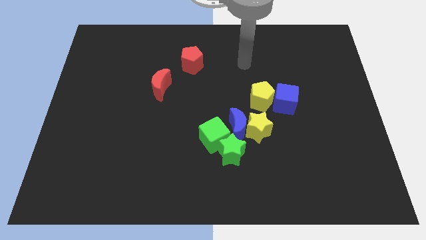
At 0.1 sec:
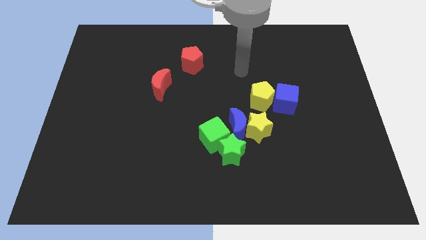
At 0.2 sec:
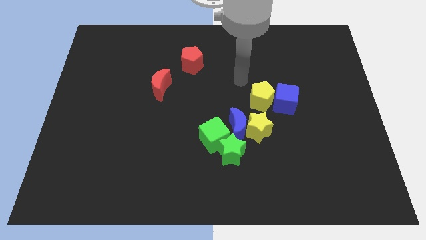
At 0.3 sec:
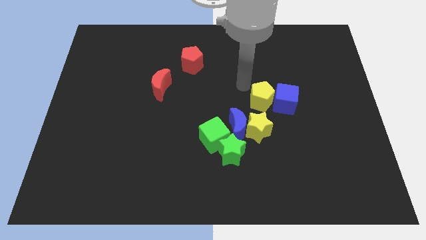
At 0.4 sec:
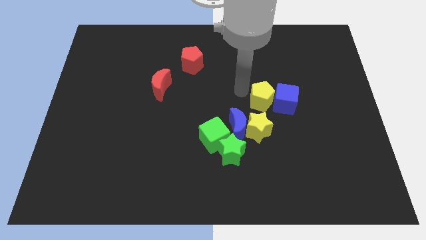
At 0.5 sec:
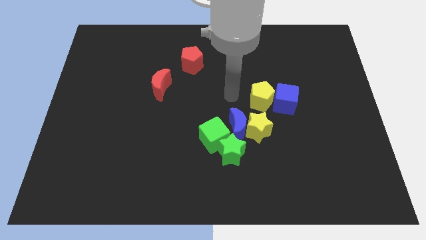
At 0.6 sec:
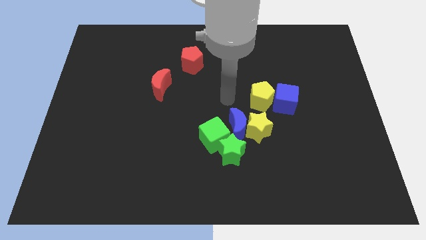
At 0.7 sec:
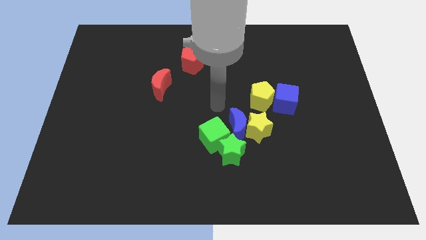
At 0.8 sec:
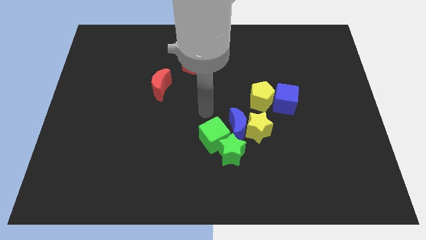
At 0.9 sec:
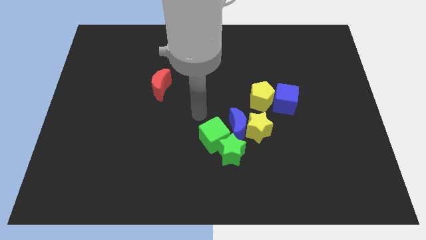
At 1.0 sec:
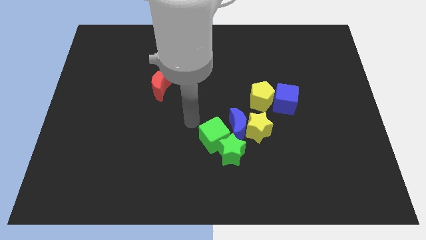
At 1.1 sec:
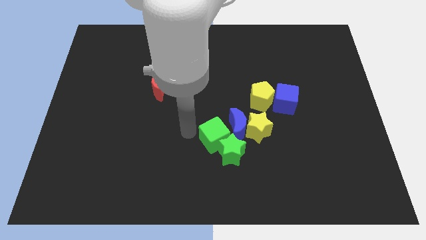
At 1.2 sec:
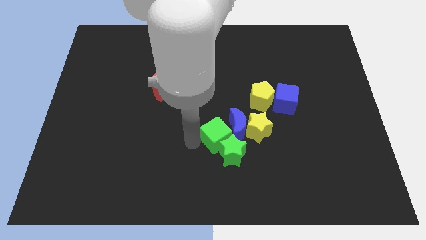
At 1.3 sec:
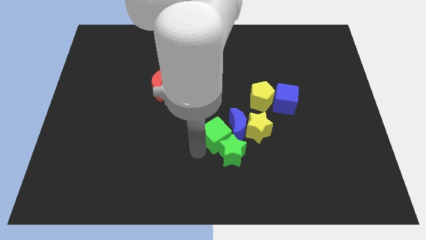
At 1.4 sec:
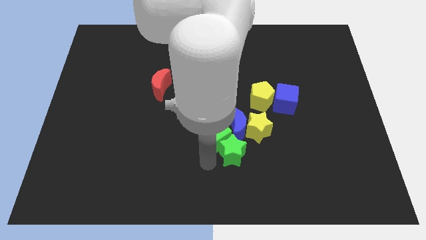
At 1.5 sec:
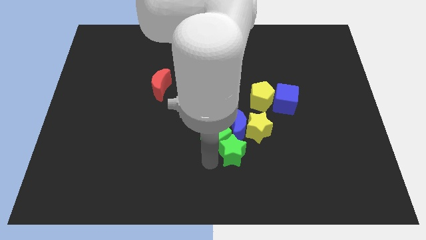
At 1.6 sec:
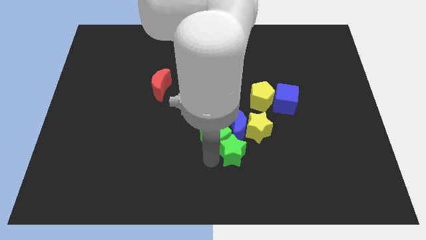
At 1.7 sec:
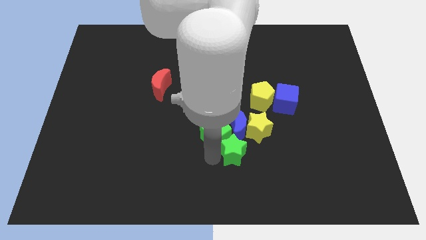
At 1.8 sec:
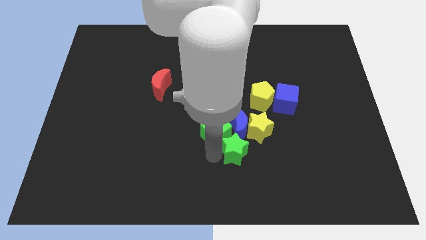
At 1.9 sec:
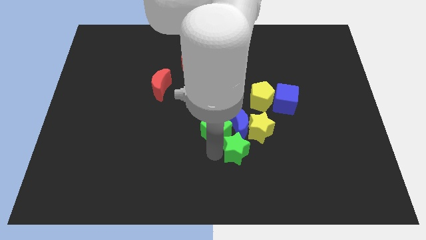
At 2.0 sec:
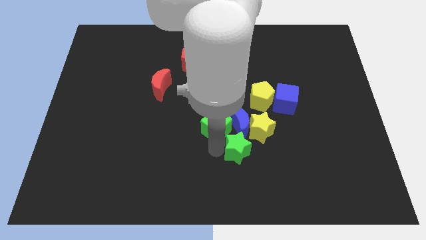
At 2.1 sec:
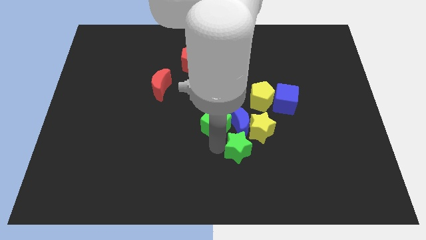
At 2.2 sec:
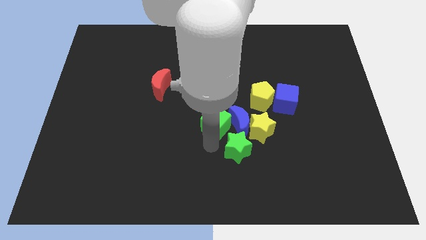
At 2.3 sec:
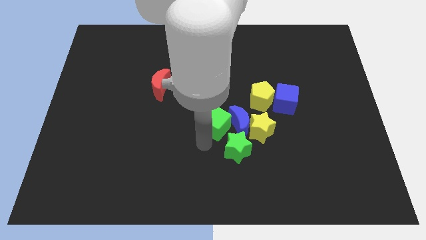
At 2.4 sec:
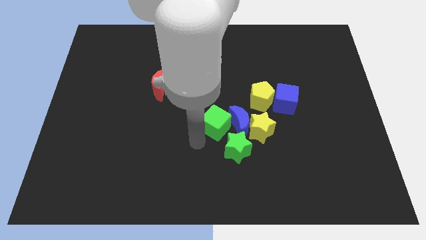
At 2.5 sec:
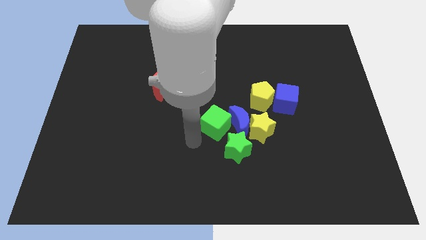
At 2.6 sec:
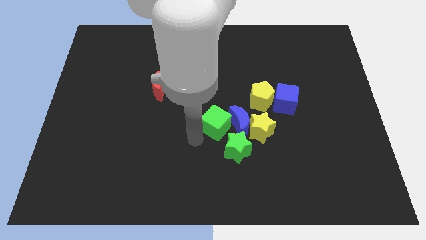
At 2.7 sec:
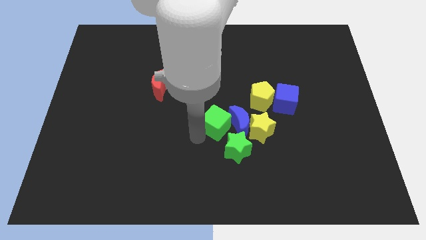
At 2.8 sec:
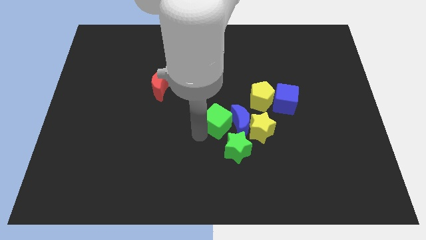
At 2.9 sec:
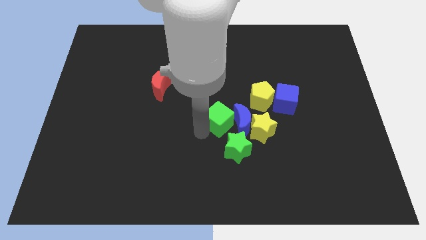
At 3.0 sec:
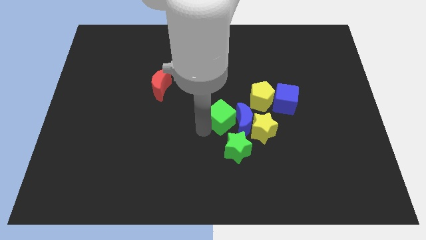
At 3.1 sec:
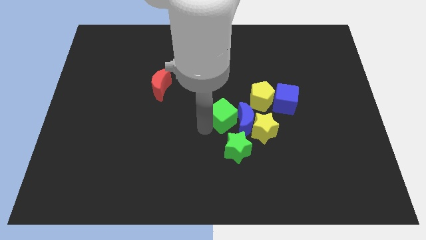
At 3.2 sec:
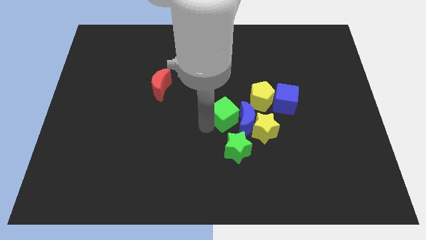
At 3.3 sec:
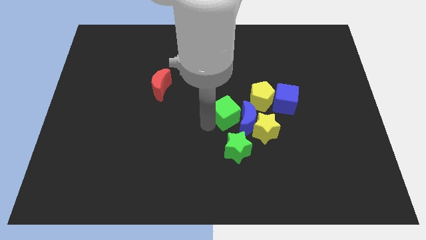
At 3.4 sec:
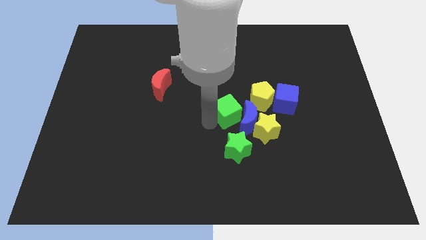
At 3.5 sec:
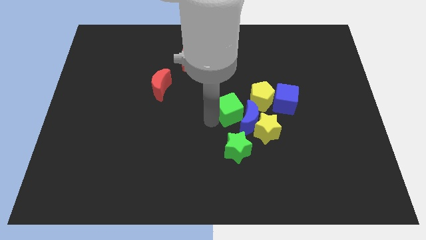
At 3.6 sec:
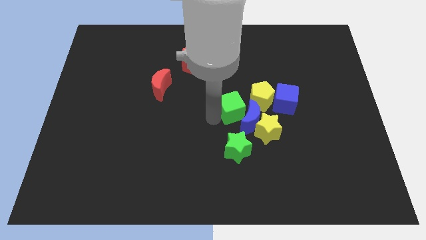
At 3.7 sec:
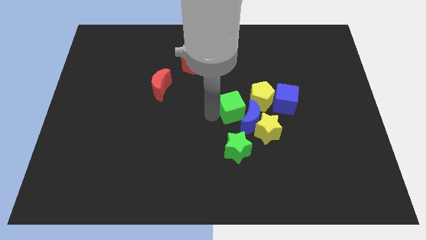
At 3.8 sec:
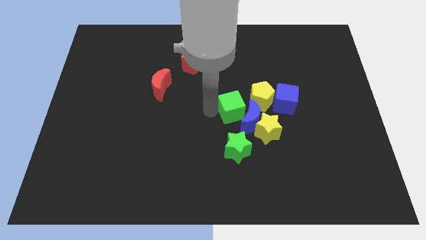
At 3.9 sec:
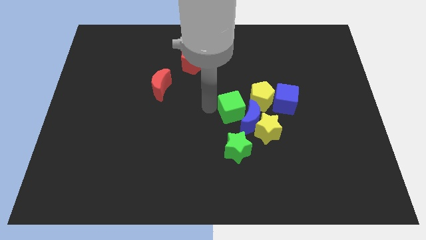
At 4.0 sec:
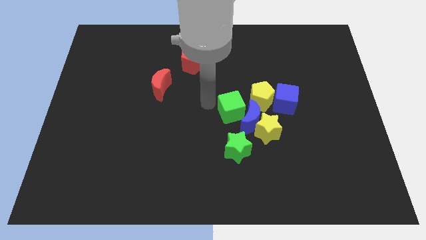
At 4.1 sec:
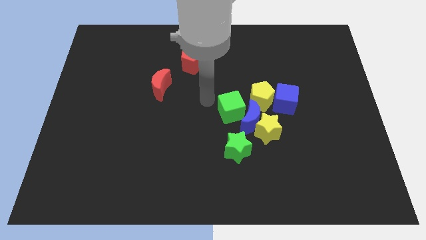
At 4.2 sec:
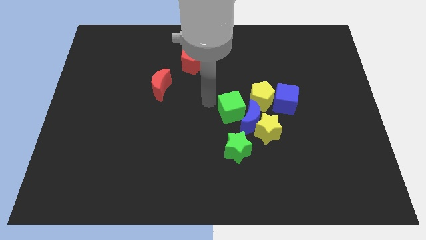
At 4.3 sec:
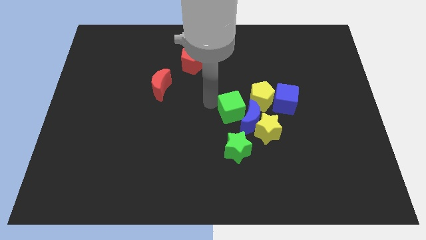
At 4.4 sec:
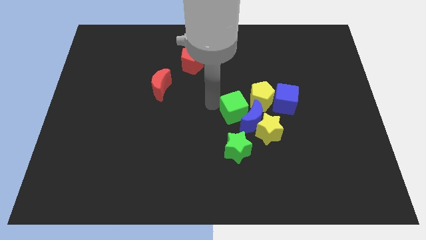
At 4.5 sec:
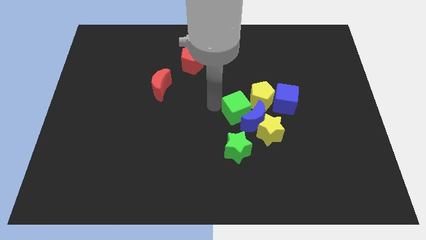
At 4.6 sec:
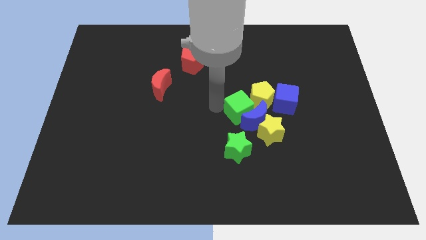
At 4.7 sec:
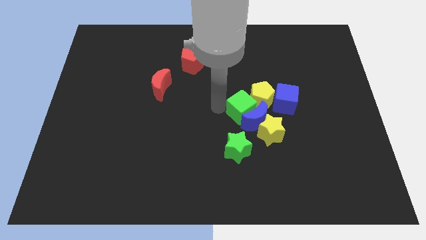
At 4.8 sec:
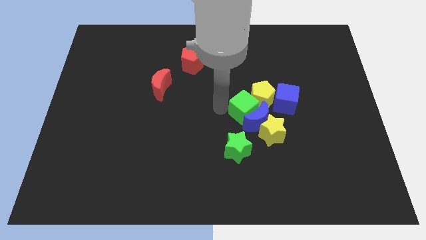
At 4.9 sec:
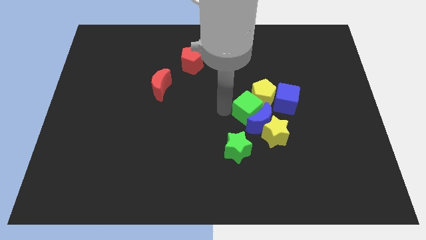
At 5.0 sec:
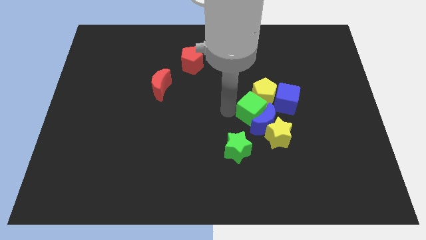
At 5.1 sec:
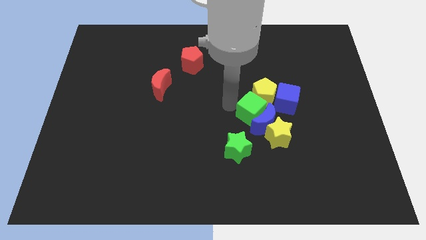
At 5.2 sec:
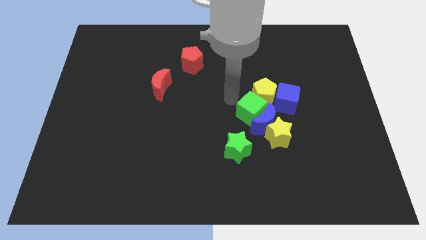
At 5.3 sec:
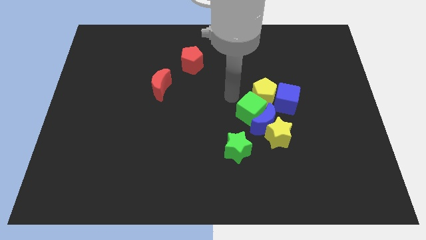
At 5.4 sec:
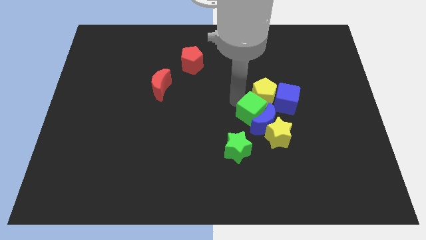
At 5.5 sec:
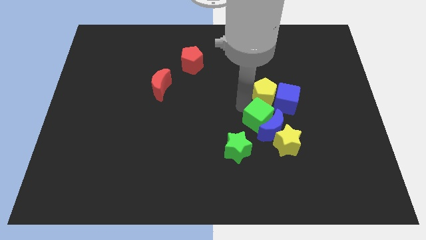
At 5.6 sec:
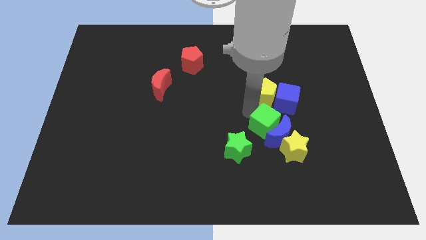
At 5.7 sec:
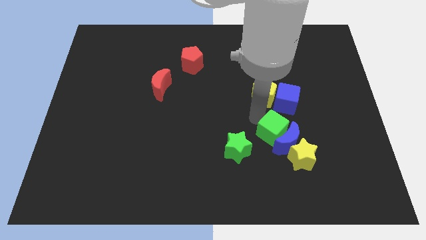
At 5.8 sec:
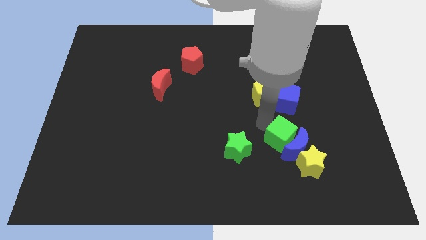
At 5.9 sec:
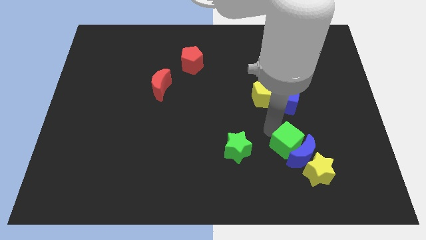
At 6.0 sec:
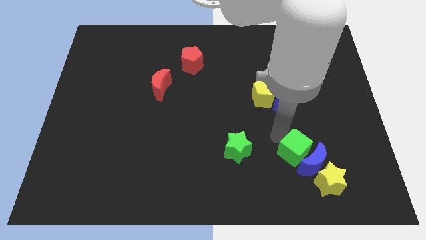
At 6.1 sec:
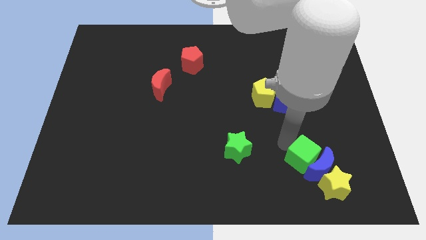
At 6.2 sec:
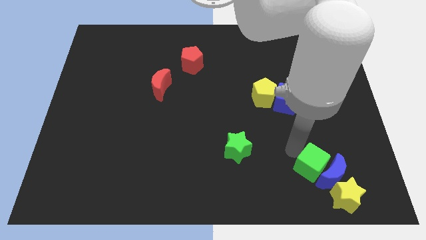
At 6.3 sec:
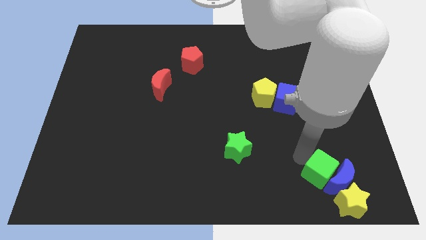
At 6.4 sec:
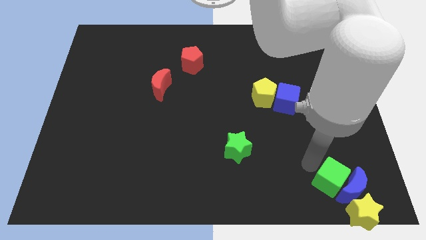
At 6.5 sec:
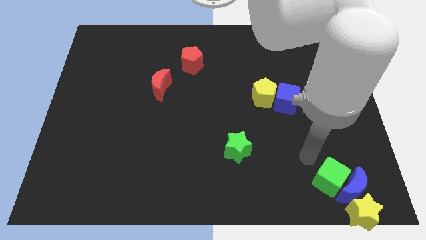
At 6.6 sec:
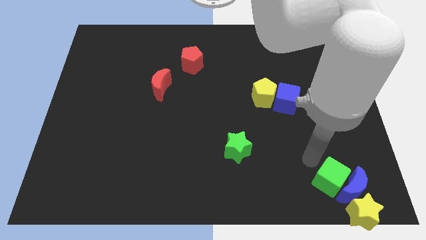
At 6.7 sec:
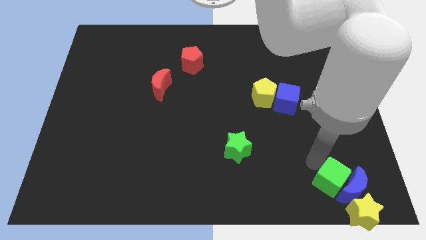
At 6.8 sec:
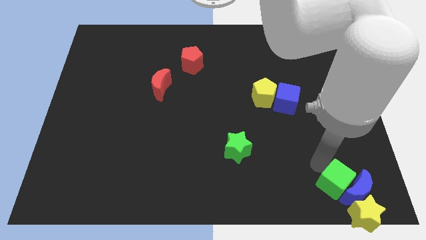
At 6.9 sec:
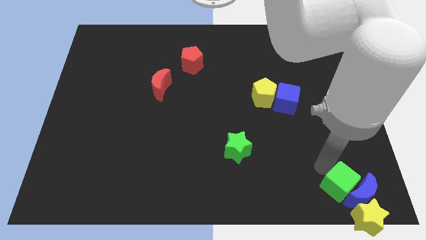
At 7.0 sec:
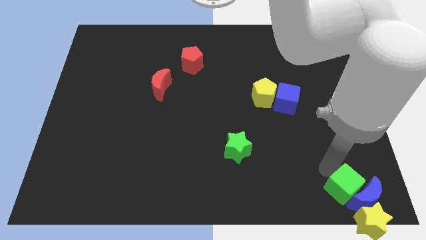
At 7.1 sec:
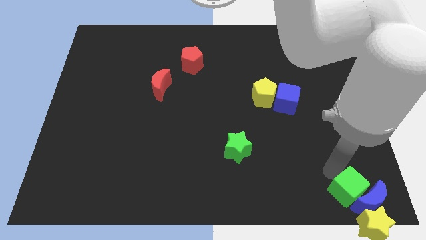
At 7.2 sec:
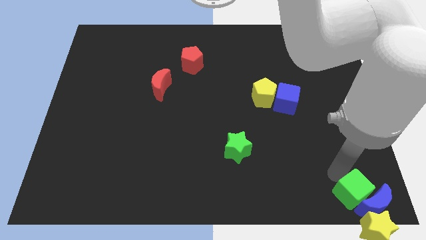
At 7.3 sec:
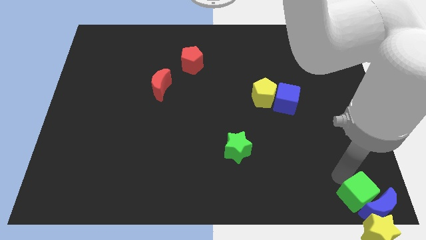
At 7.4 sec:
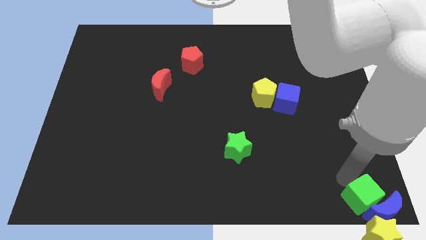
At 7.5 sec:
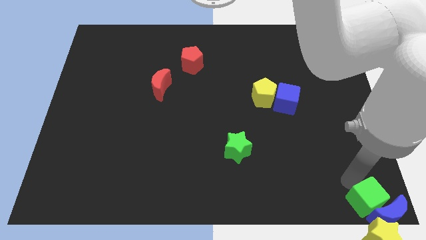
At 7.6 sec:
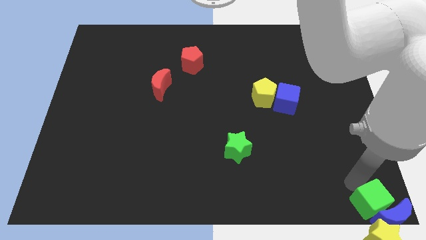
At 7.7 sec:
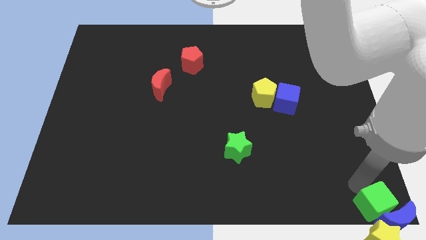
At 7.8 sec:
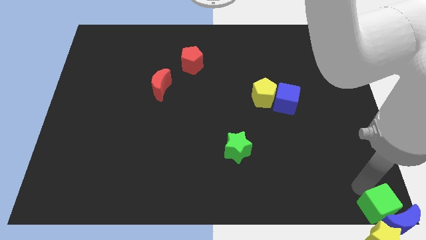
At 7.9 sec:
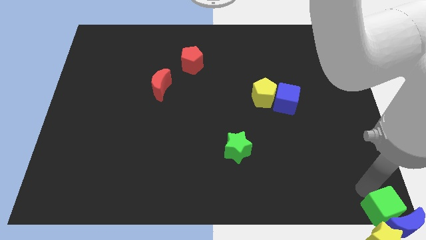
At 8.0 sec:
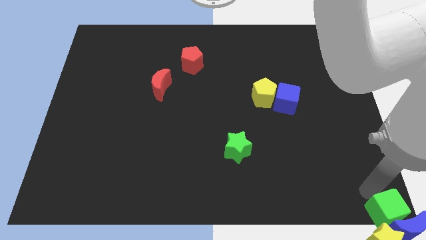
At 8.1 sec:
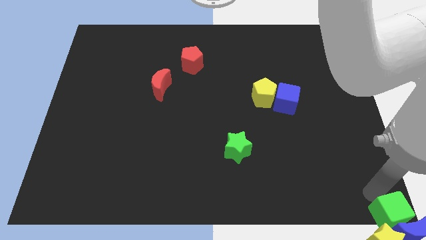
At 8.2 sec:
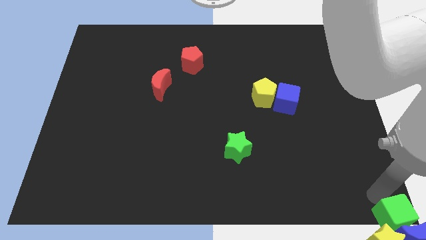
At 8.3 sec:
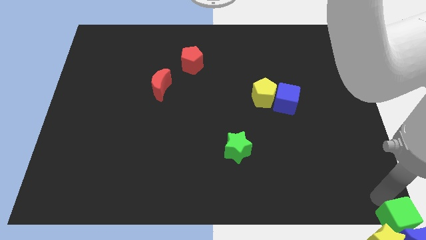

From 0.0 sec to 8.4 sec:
slide the green cube to the yellow star
